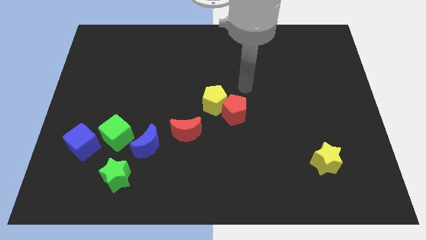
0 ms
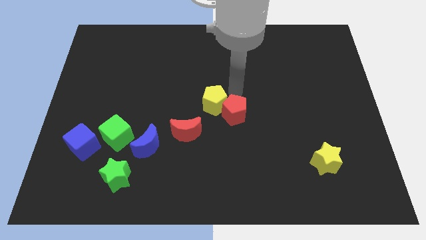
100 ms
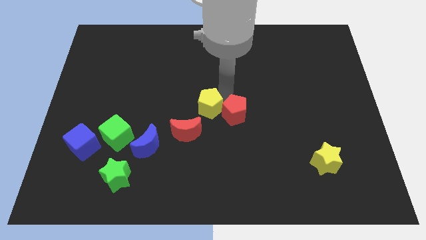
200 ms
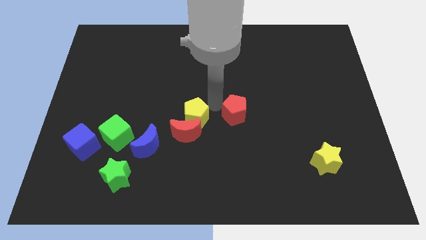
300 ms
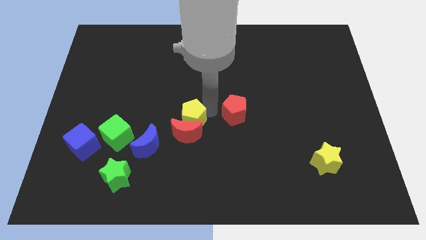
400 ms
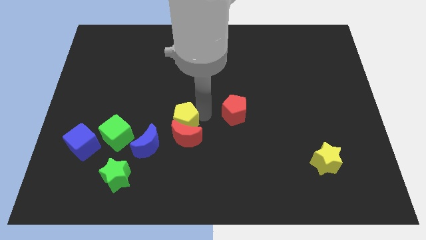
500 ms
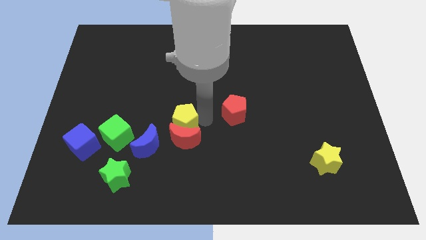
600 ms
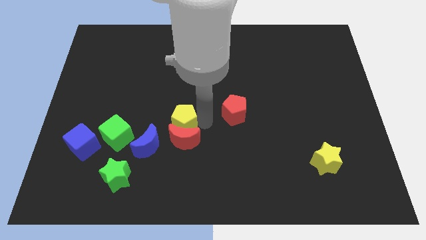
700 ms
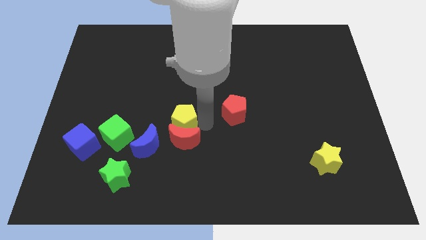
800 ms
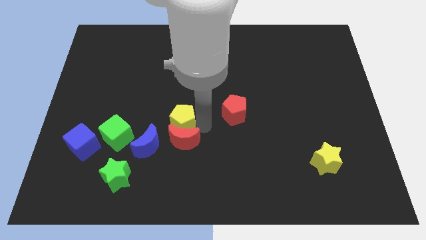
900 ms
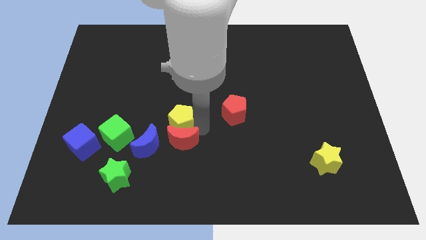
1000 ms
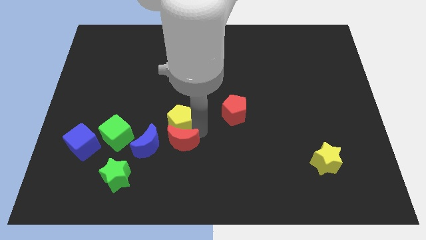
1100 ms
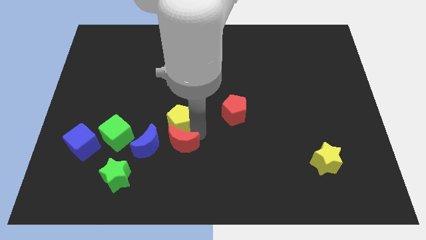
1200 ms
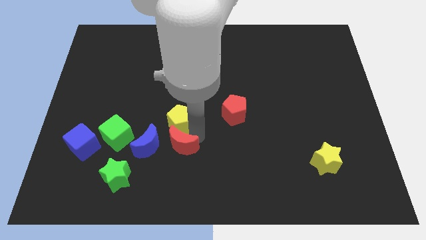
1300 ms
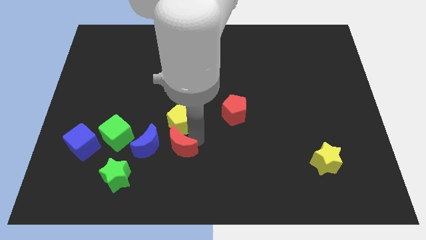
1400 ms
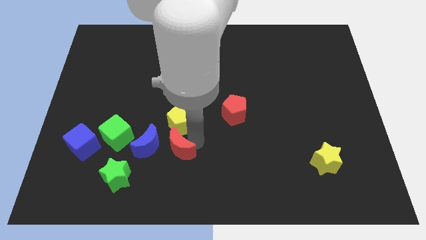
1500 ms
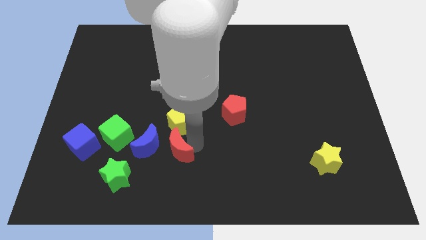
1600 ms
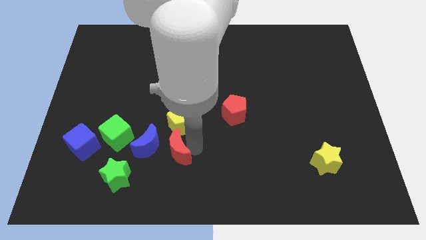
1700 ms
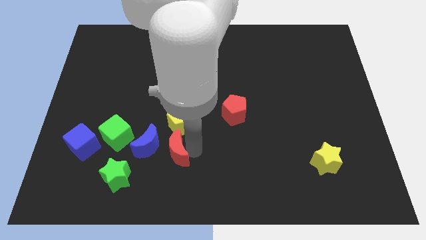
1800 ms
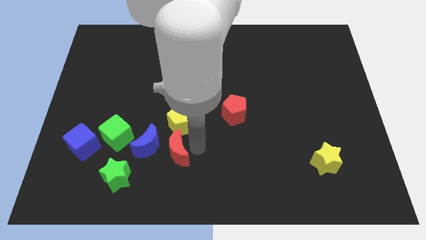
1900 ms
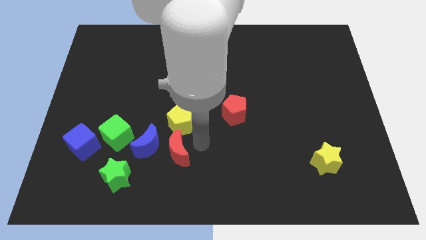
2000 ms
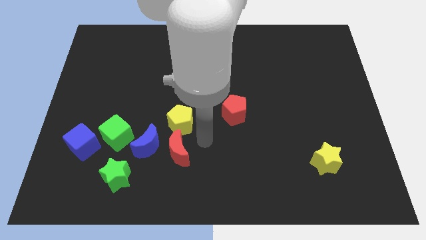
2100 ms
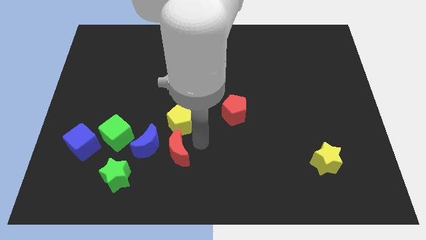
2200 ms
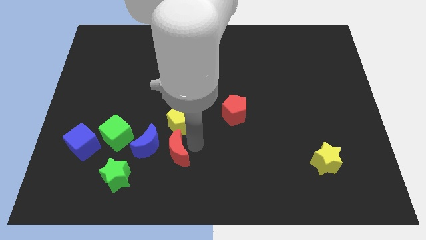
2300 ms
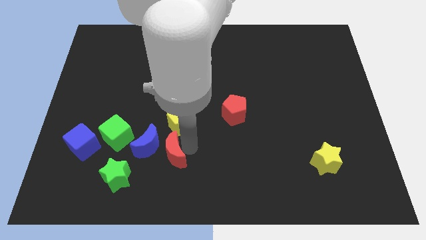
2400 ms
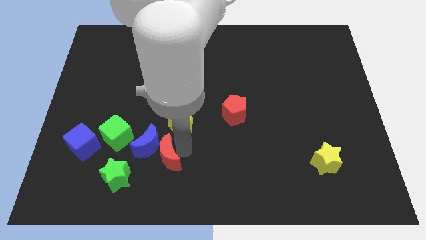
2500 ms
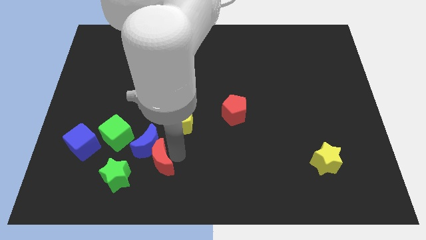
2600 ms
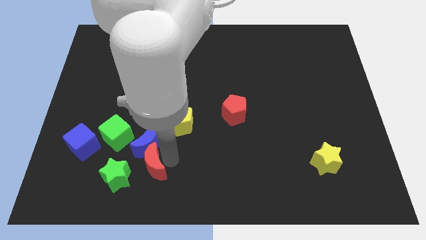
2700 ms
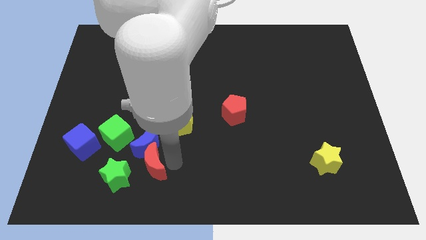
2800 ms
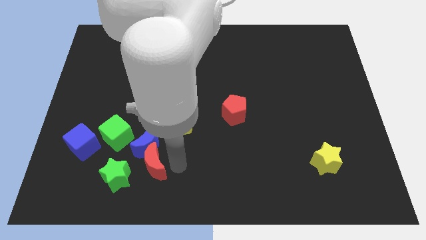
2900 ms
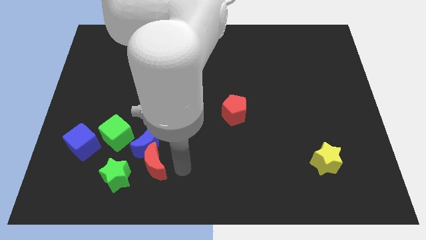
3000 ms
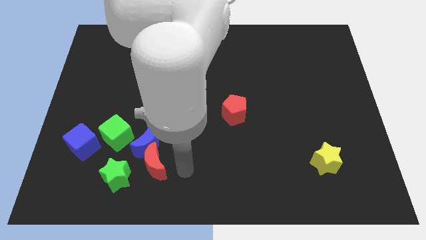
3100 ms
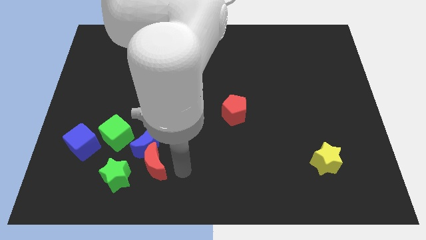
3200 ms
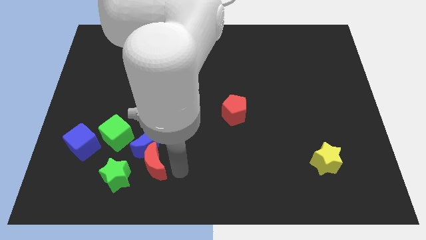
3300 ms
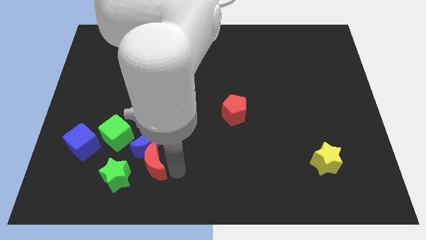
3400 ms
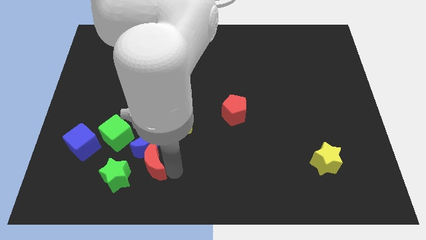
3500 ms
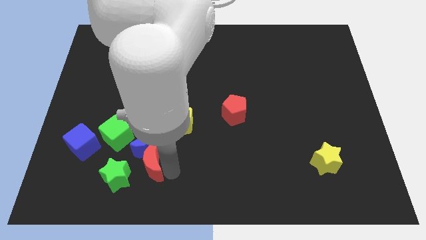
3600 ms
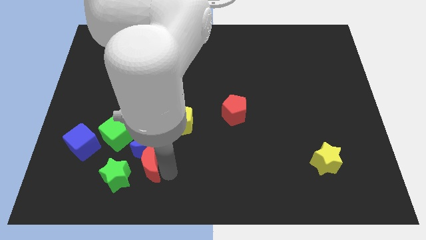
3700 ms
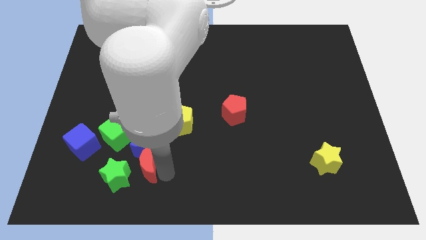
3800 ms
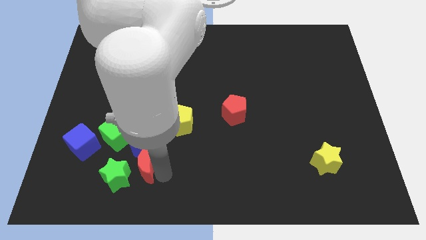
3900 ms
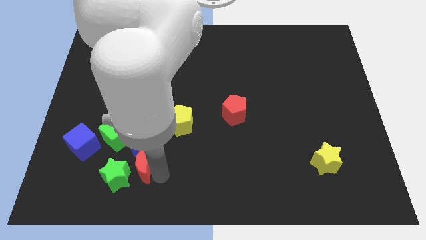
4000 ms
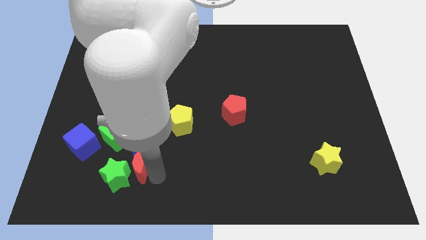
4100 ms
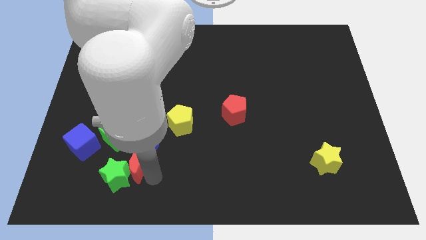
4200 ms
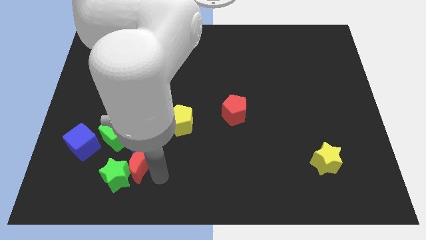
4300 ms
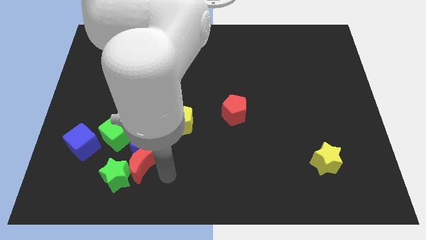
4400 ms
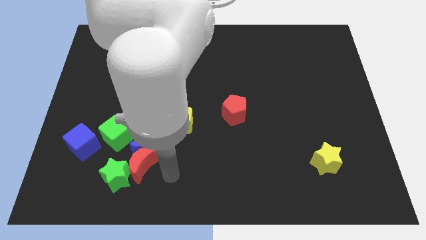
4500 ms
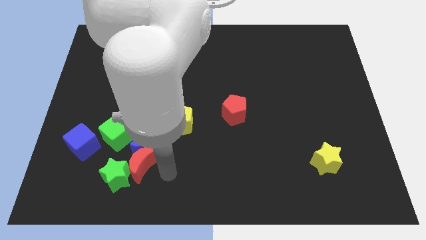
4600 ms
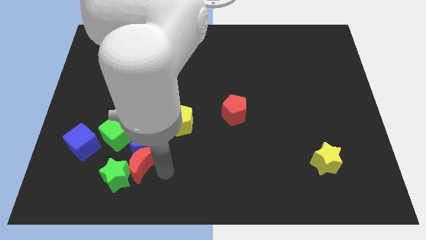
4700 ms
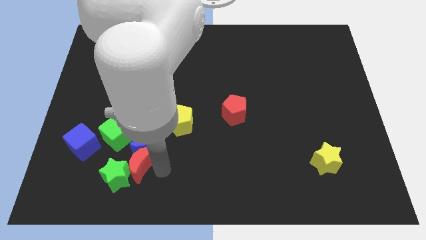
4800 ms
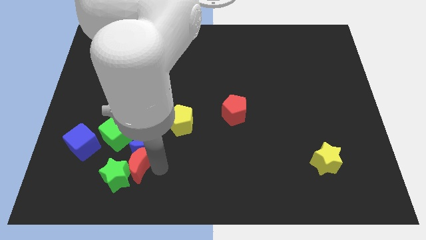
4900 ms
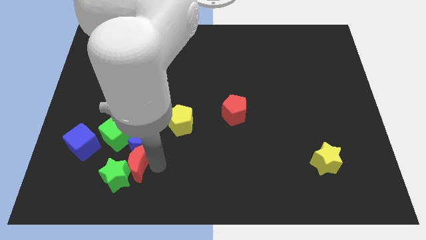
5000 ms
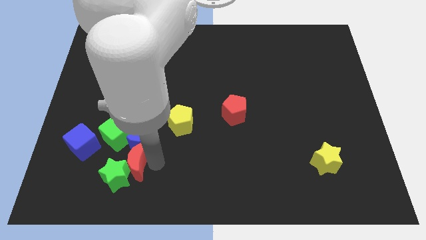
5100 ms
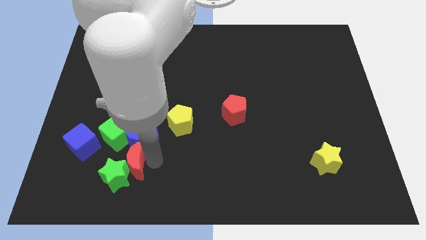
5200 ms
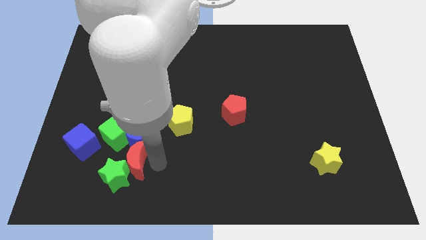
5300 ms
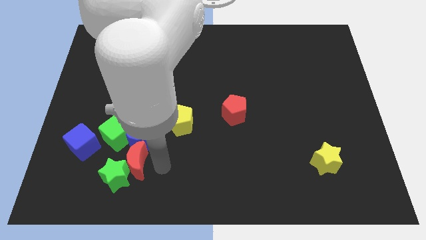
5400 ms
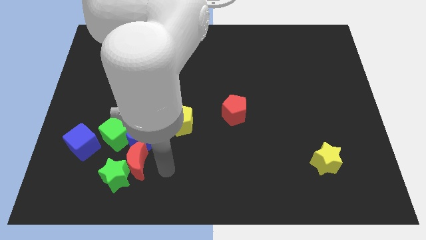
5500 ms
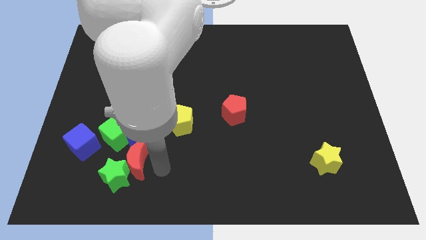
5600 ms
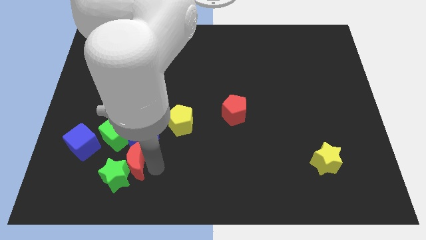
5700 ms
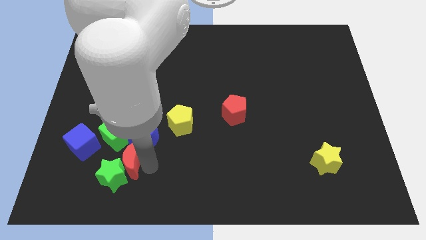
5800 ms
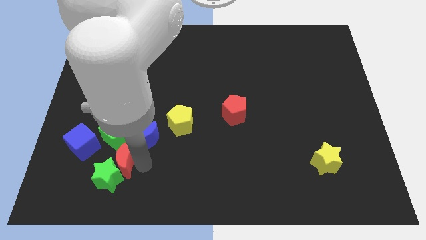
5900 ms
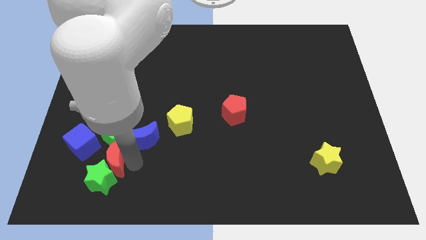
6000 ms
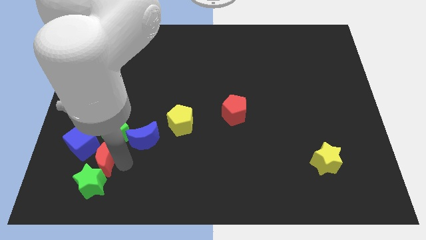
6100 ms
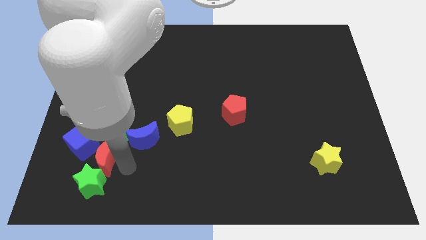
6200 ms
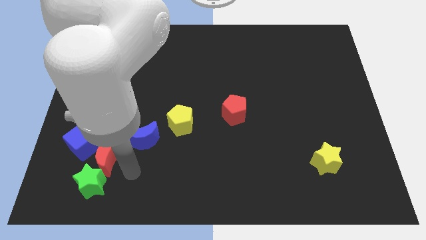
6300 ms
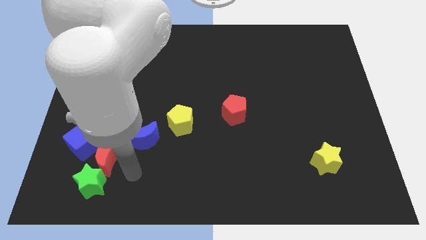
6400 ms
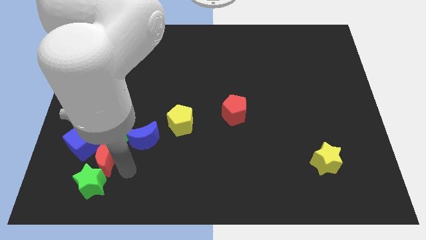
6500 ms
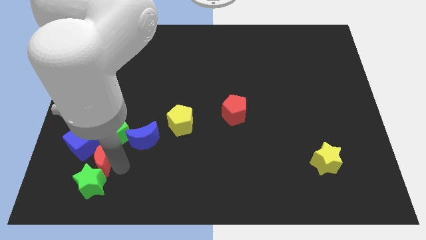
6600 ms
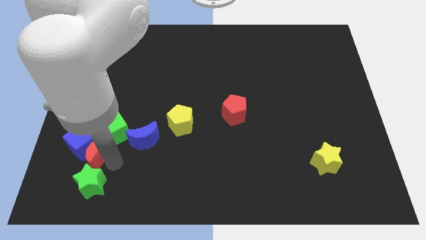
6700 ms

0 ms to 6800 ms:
put the red moon close to the blue cube

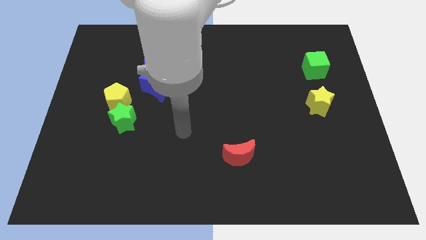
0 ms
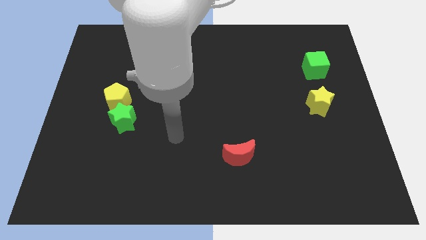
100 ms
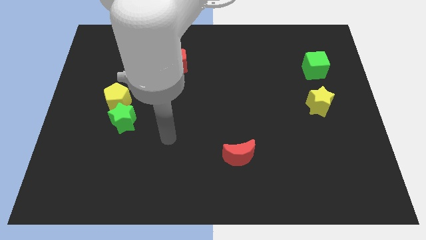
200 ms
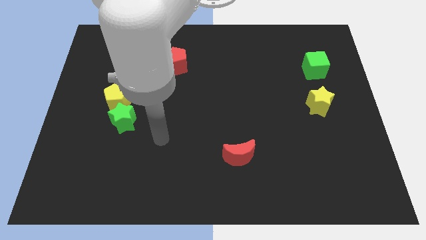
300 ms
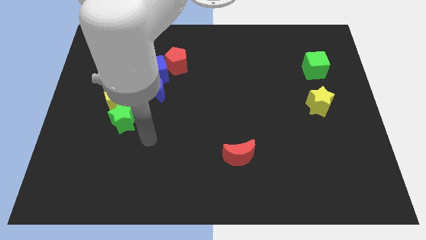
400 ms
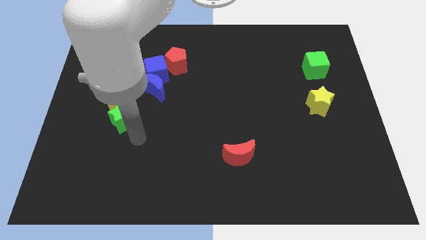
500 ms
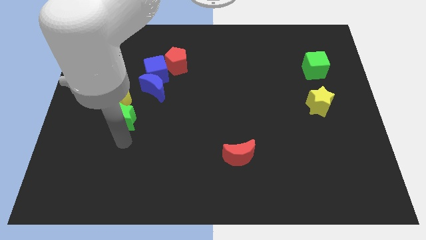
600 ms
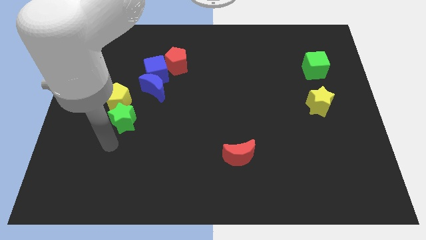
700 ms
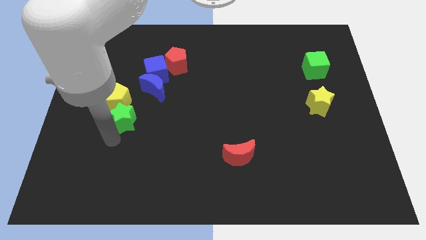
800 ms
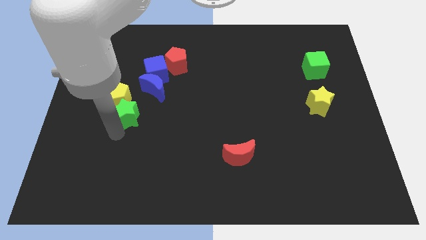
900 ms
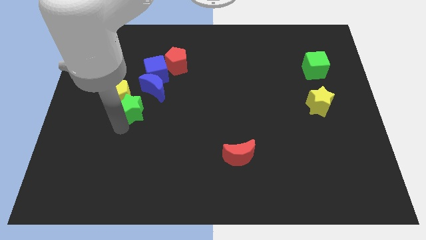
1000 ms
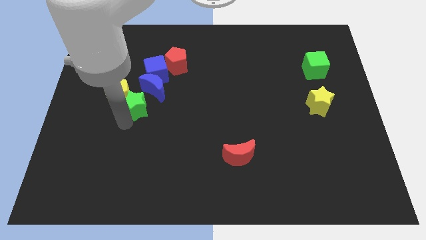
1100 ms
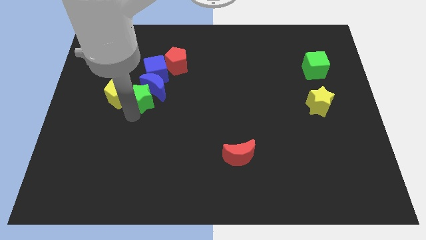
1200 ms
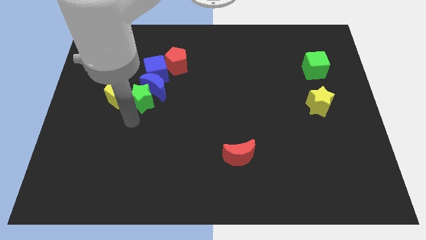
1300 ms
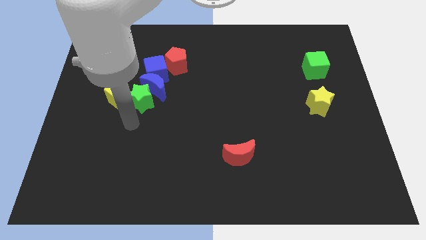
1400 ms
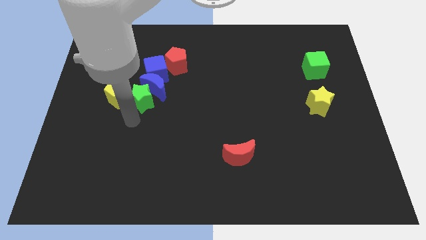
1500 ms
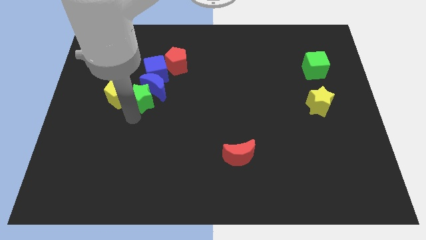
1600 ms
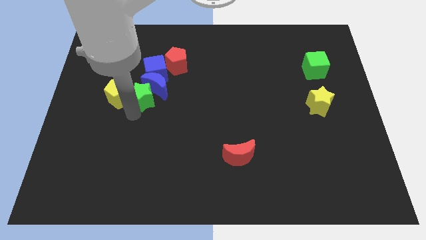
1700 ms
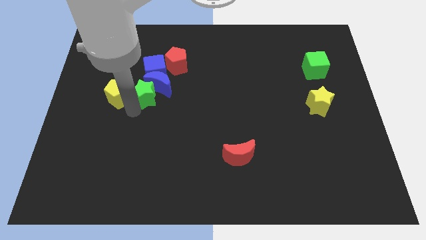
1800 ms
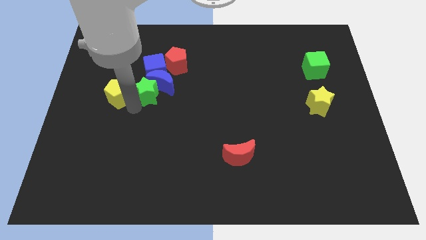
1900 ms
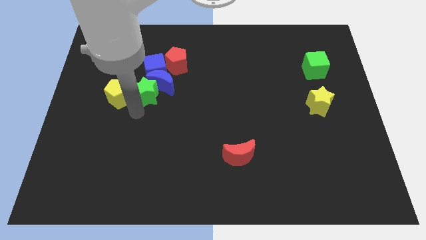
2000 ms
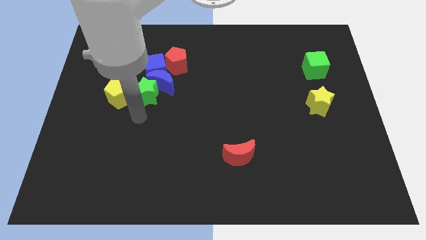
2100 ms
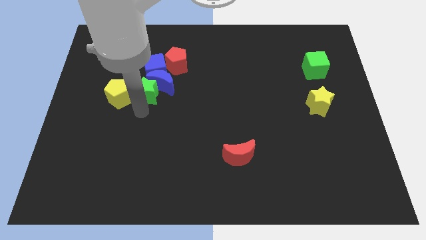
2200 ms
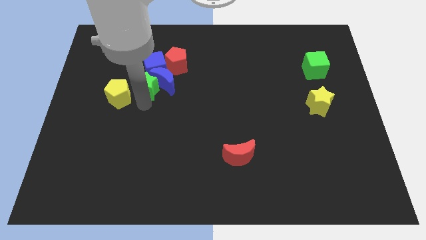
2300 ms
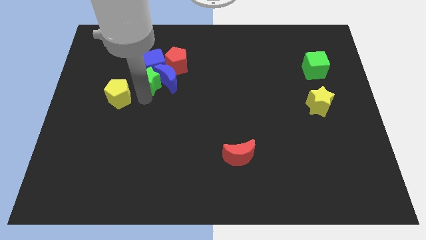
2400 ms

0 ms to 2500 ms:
move the green star to the blue cube
